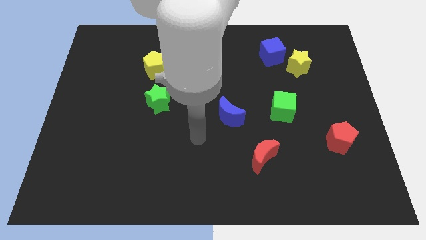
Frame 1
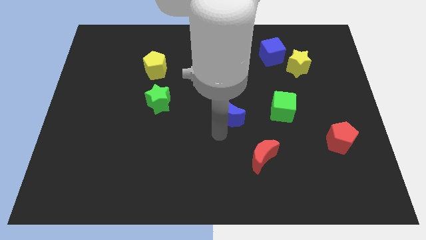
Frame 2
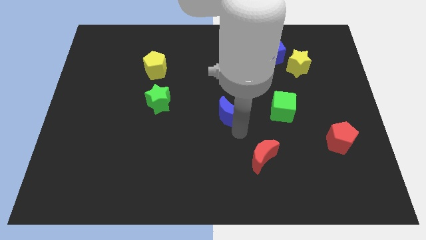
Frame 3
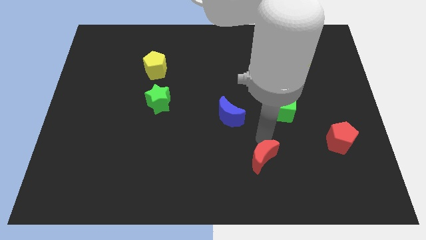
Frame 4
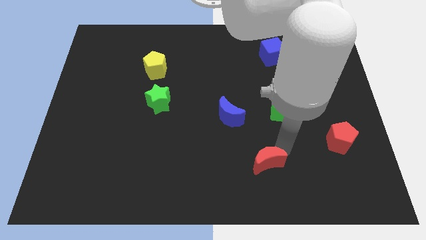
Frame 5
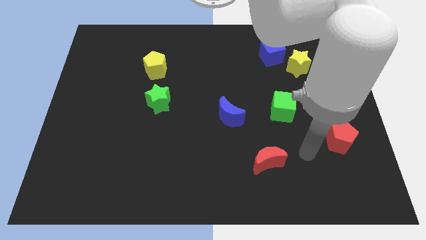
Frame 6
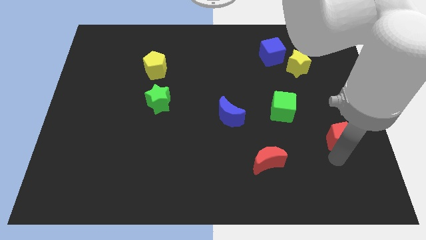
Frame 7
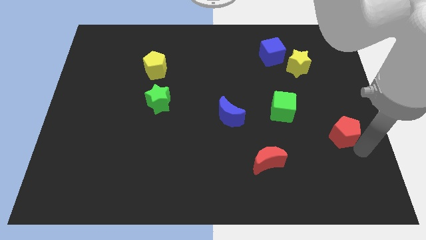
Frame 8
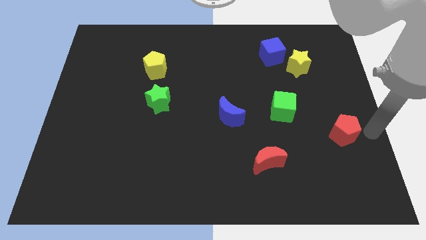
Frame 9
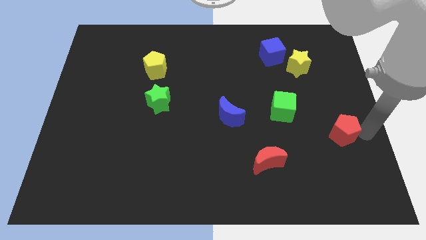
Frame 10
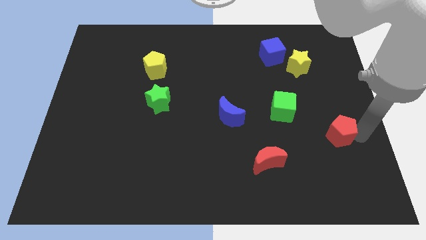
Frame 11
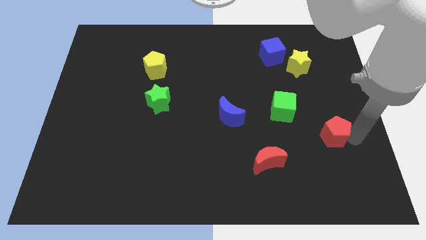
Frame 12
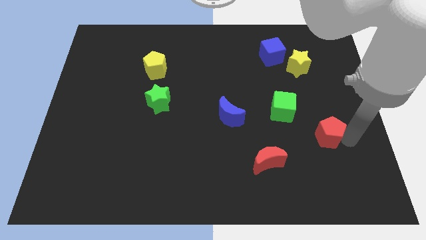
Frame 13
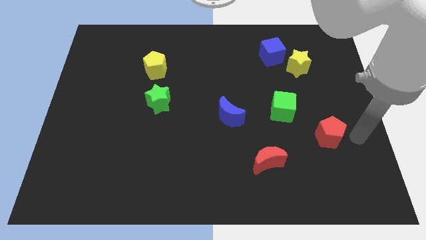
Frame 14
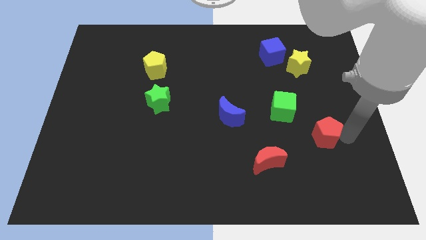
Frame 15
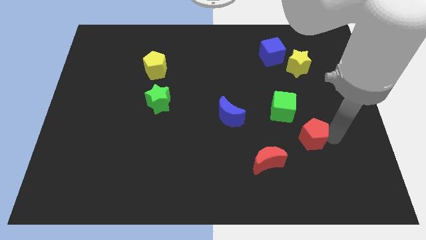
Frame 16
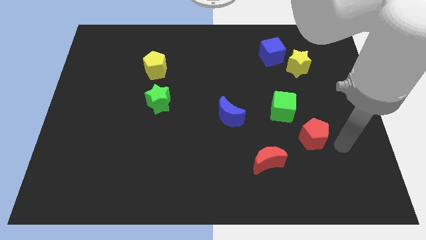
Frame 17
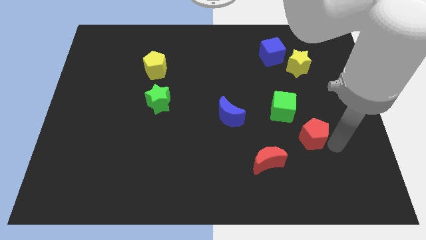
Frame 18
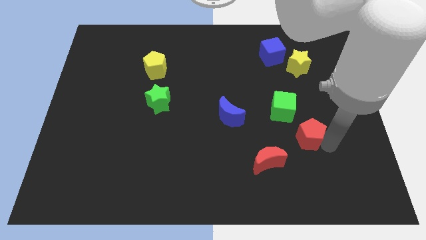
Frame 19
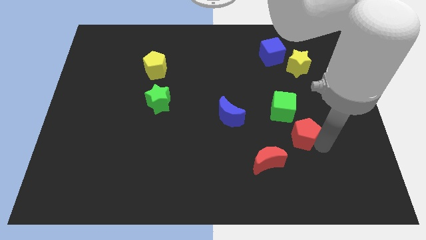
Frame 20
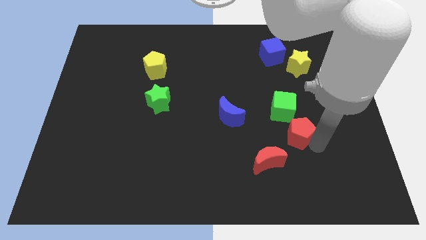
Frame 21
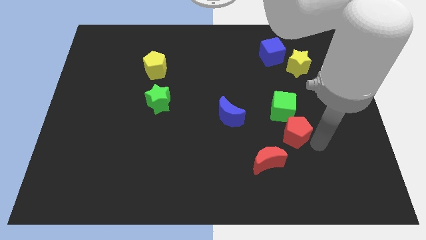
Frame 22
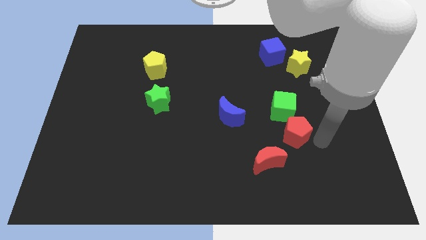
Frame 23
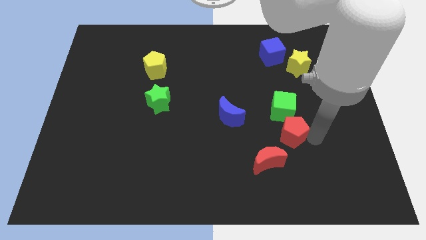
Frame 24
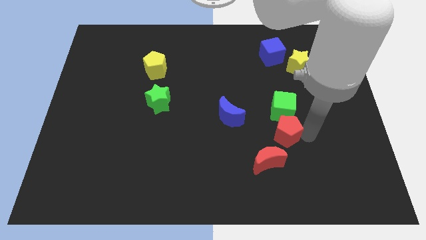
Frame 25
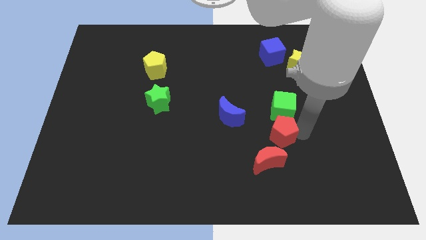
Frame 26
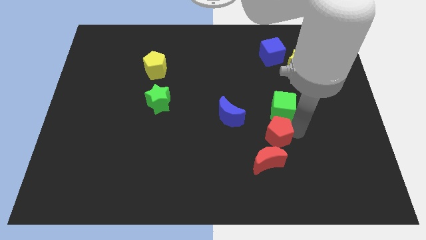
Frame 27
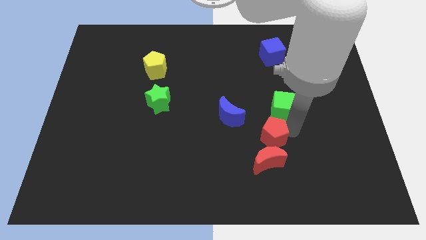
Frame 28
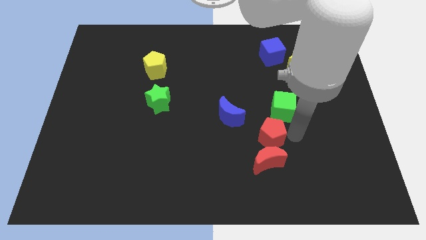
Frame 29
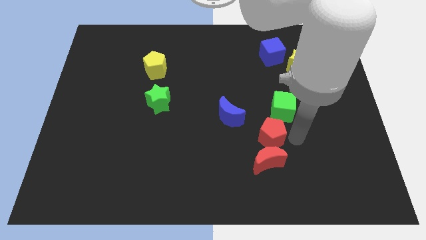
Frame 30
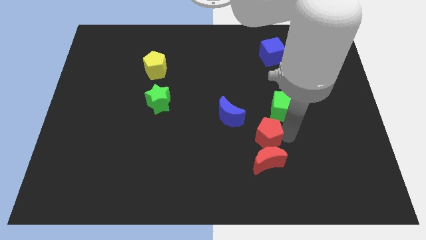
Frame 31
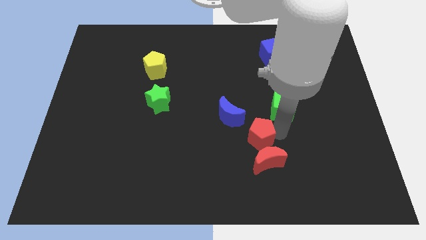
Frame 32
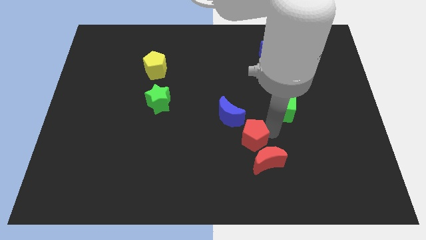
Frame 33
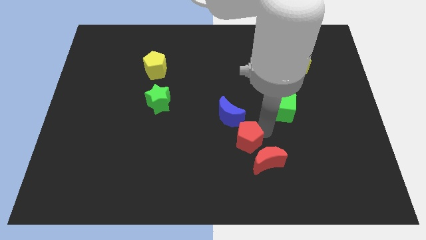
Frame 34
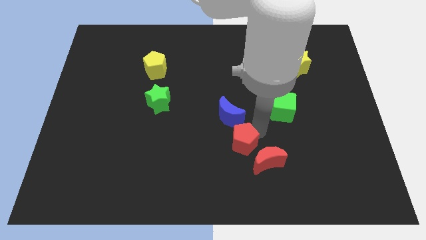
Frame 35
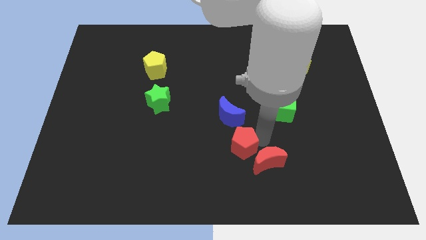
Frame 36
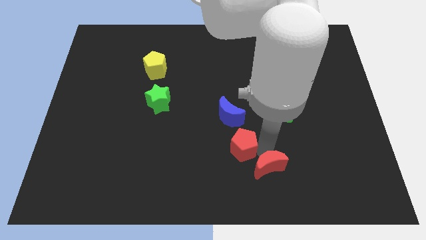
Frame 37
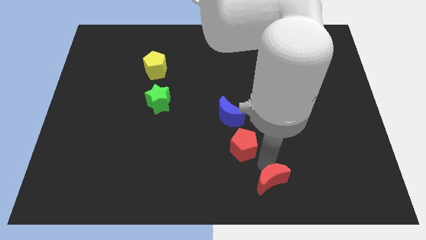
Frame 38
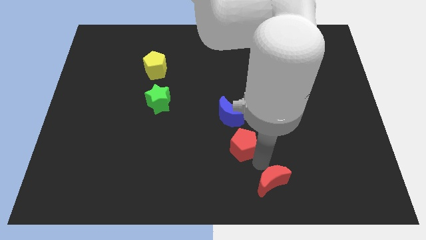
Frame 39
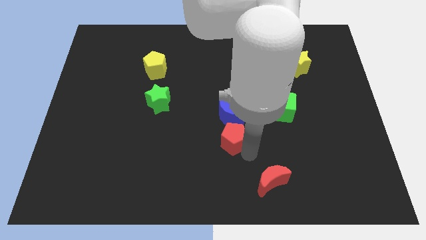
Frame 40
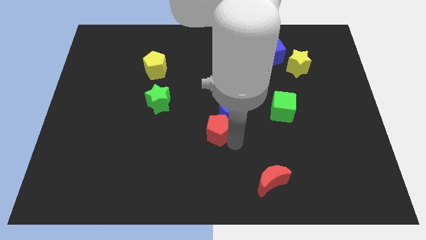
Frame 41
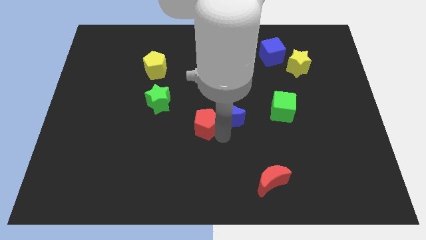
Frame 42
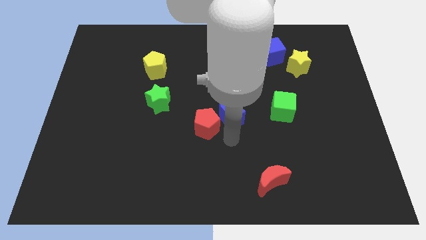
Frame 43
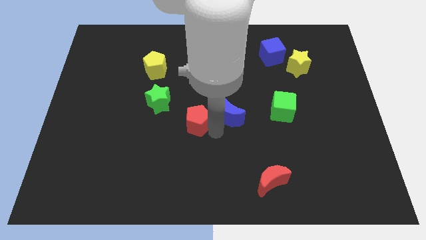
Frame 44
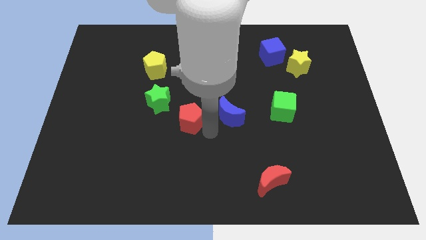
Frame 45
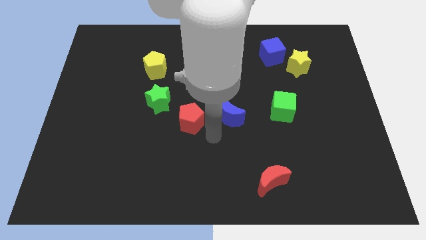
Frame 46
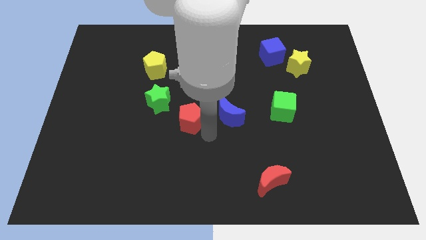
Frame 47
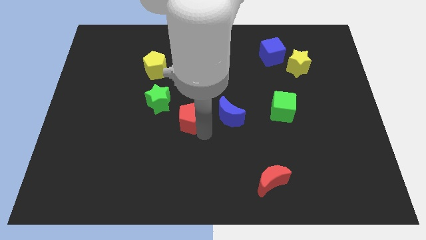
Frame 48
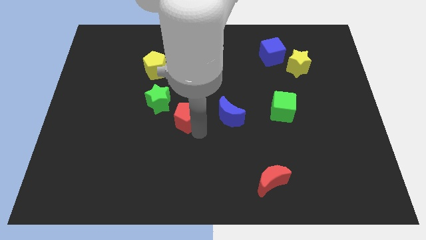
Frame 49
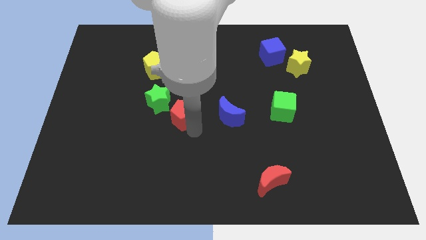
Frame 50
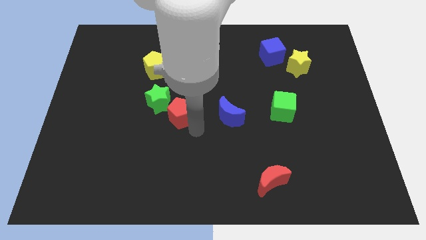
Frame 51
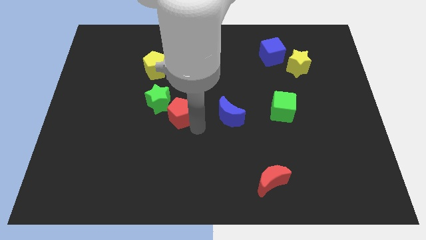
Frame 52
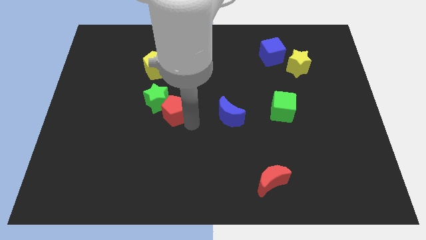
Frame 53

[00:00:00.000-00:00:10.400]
put the red pentagon towards the green star

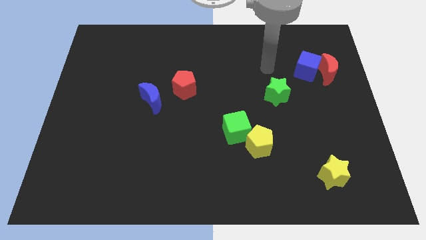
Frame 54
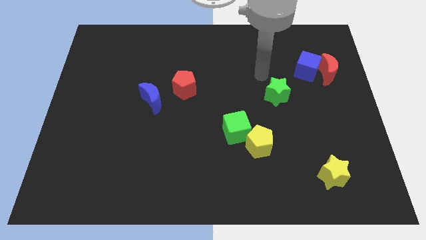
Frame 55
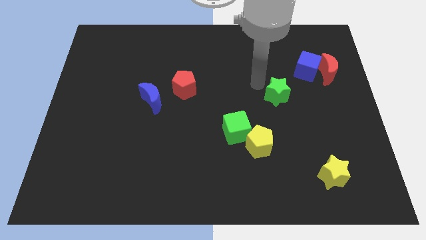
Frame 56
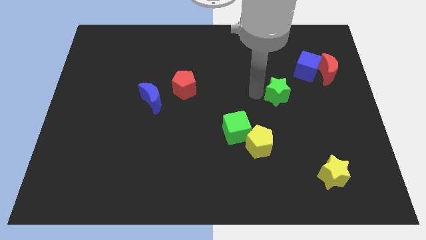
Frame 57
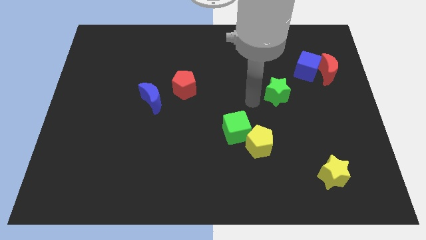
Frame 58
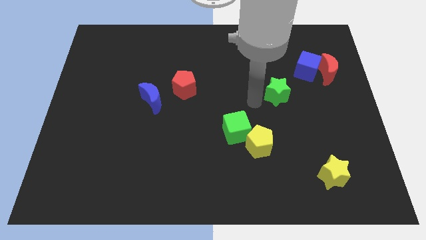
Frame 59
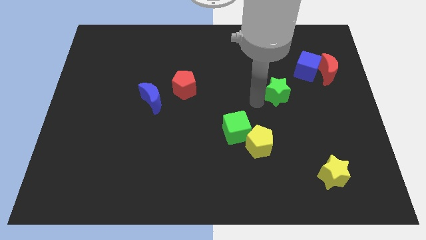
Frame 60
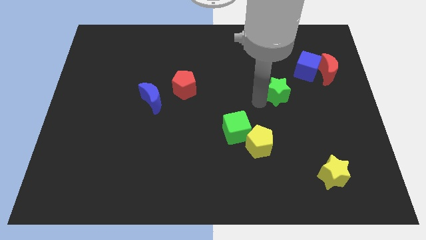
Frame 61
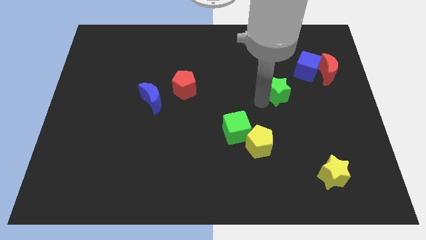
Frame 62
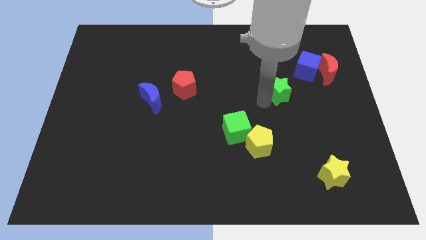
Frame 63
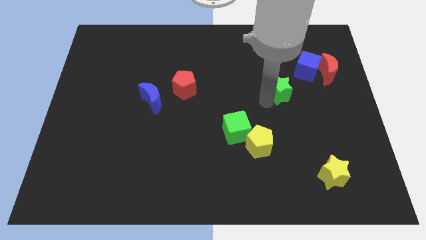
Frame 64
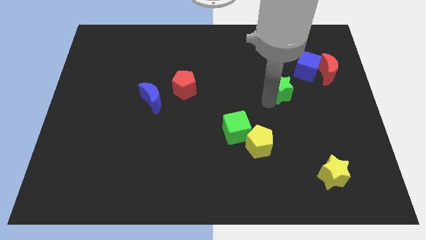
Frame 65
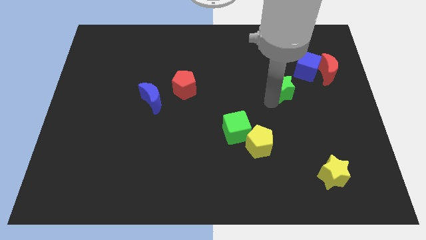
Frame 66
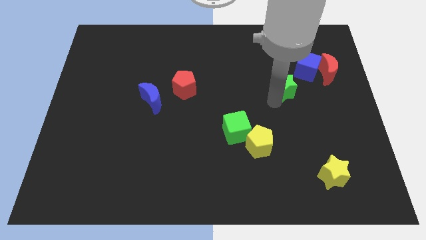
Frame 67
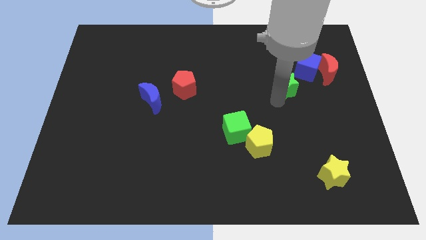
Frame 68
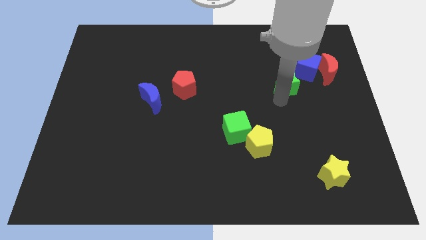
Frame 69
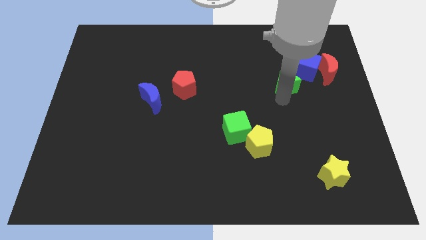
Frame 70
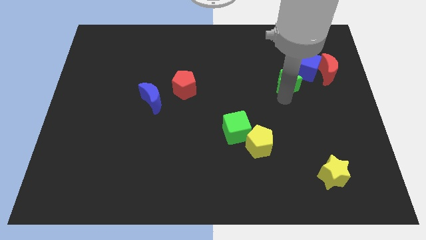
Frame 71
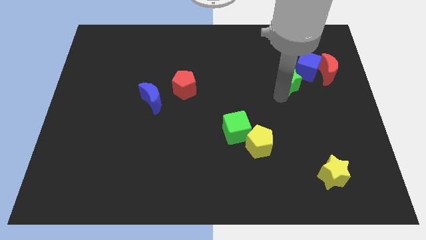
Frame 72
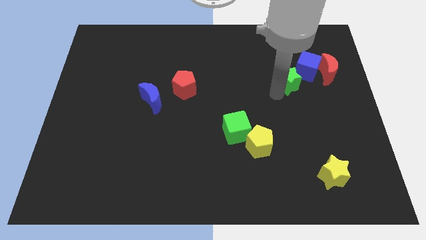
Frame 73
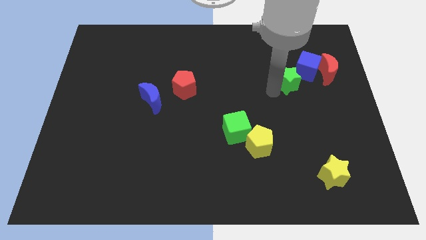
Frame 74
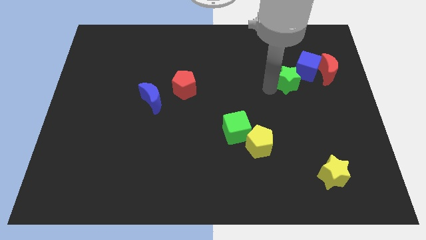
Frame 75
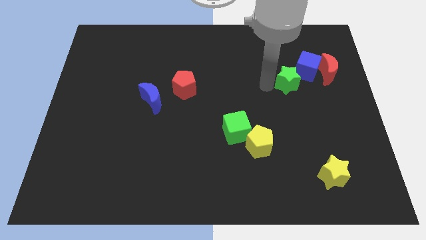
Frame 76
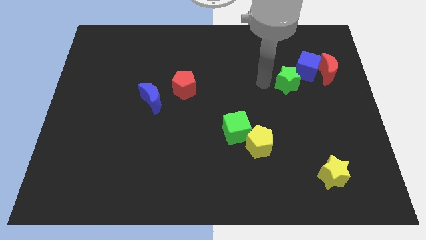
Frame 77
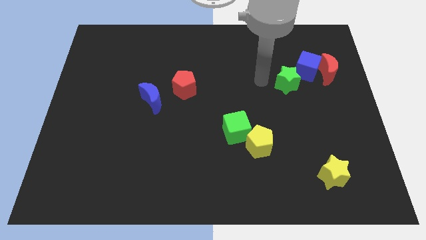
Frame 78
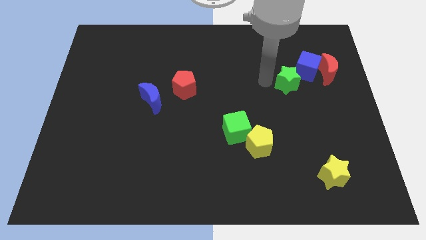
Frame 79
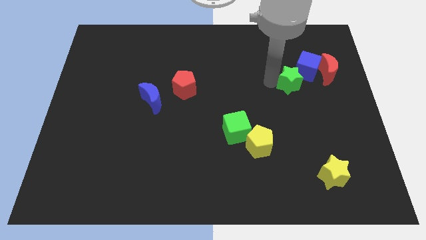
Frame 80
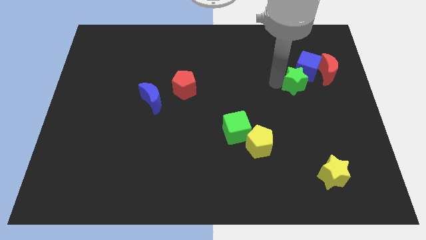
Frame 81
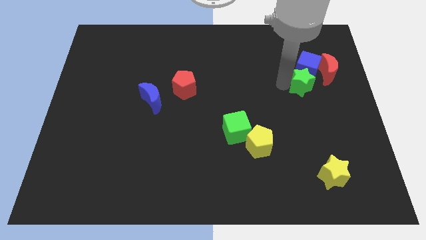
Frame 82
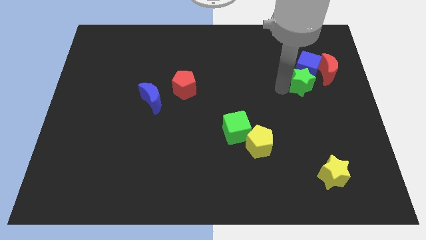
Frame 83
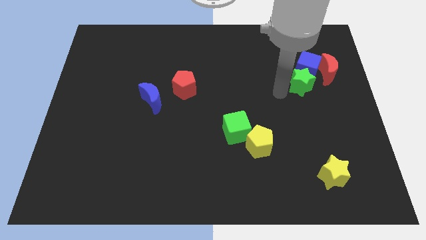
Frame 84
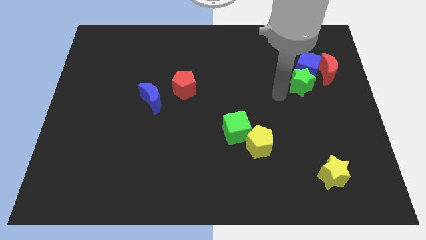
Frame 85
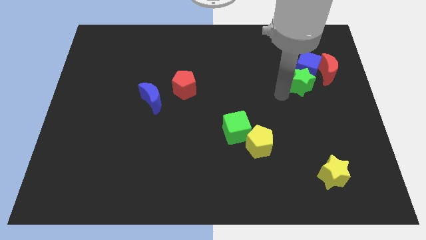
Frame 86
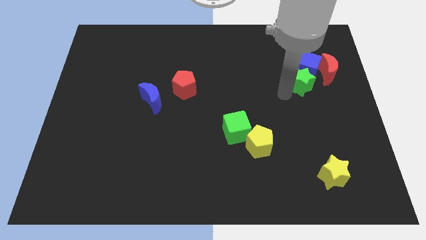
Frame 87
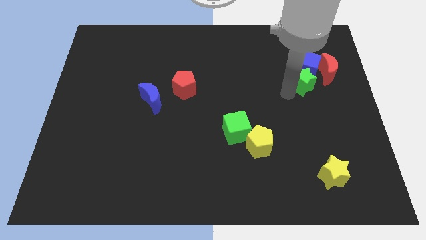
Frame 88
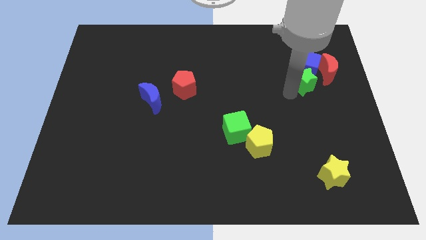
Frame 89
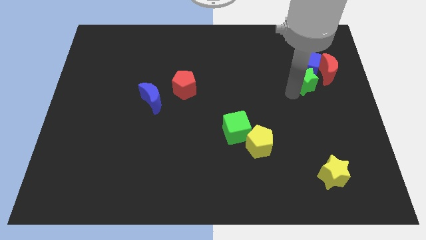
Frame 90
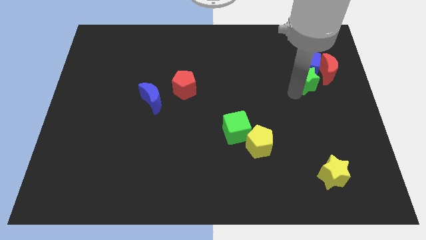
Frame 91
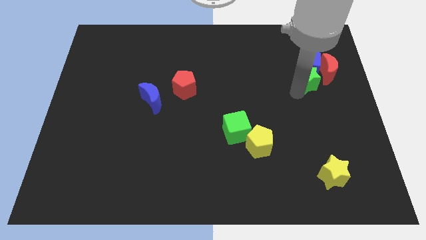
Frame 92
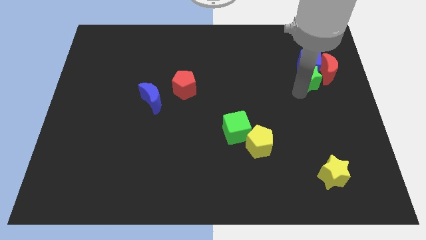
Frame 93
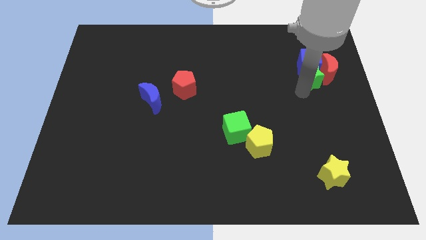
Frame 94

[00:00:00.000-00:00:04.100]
slide the green star next to the red moon
